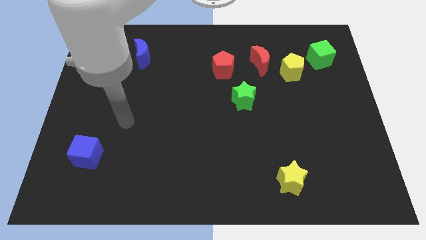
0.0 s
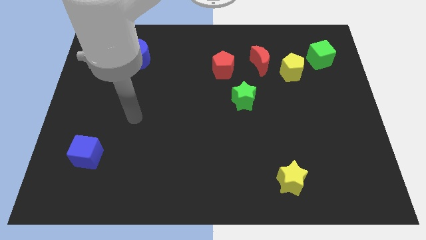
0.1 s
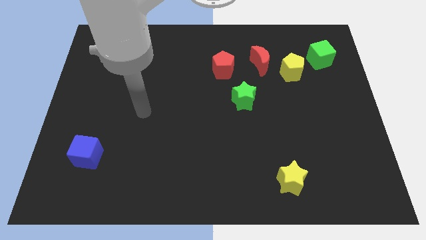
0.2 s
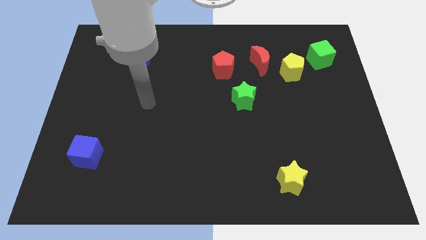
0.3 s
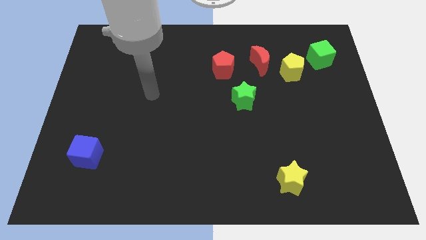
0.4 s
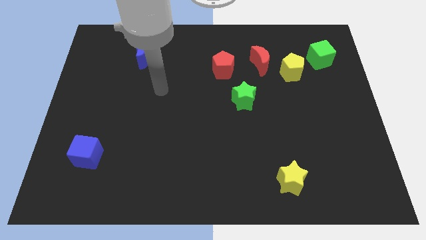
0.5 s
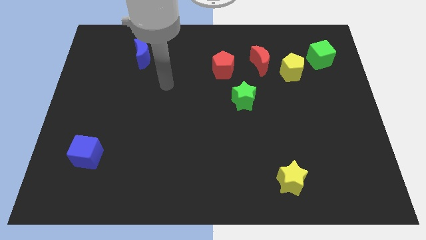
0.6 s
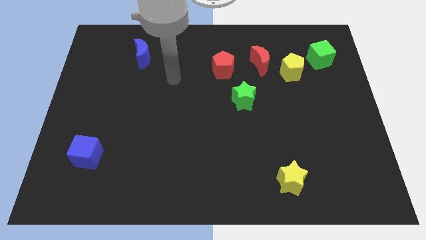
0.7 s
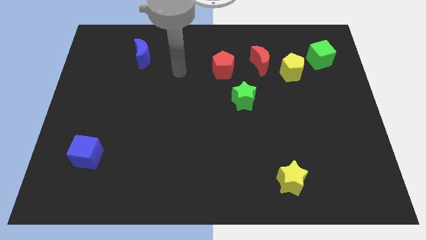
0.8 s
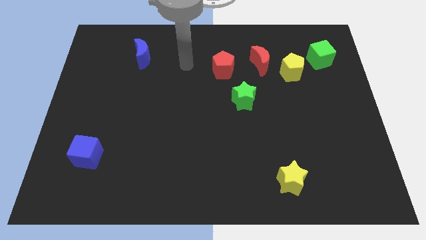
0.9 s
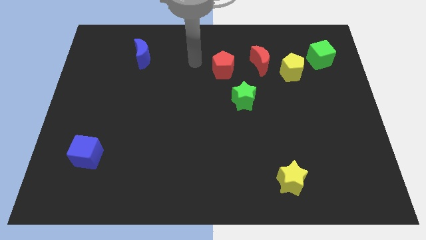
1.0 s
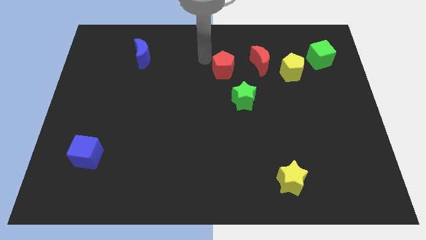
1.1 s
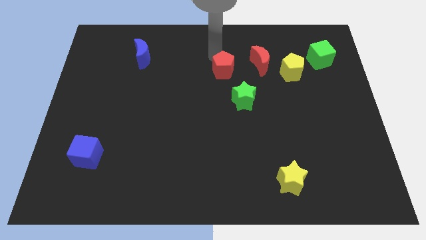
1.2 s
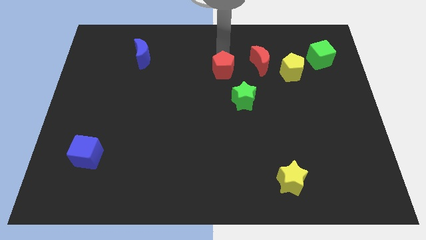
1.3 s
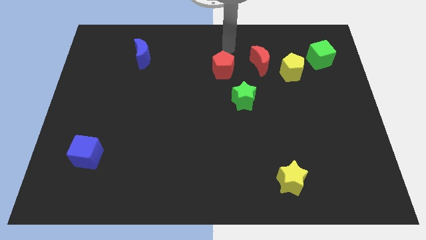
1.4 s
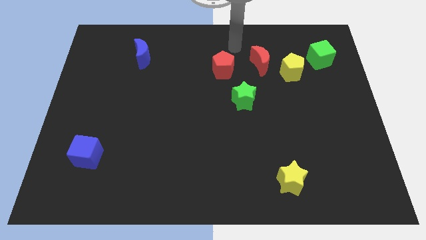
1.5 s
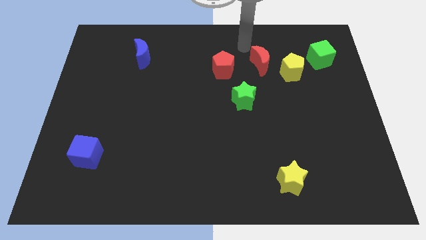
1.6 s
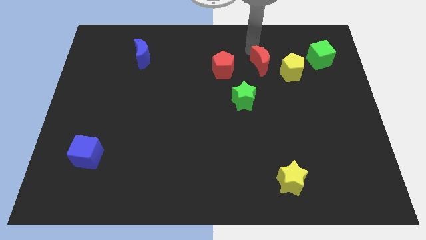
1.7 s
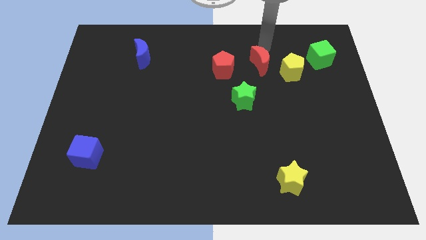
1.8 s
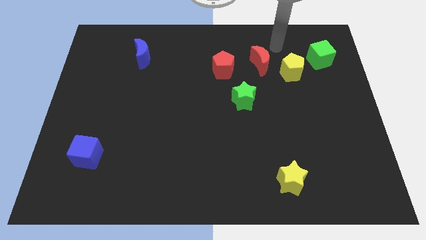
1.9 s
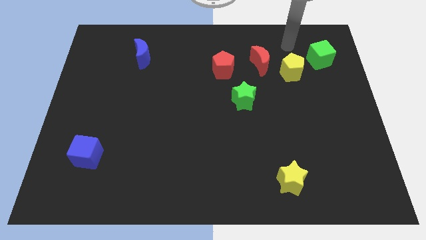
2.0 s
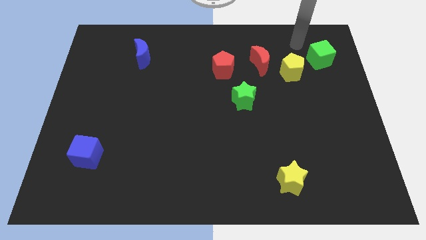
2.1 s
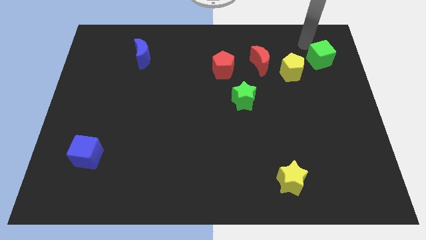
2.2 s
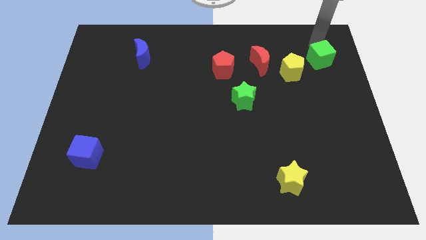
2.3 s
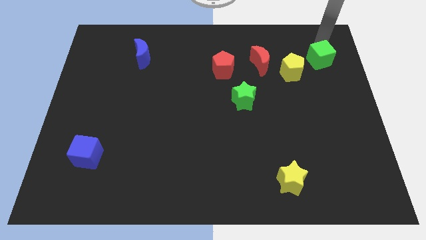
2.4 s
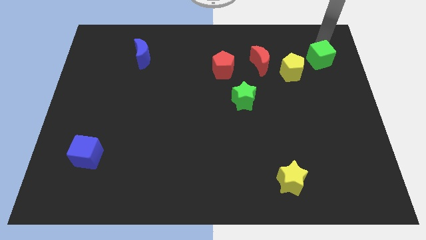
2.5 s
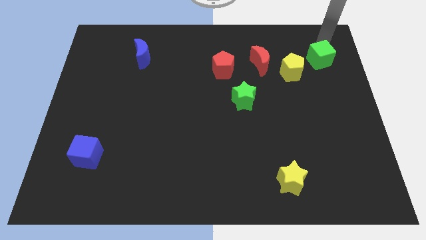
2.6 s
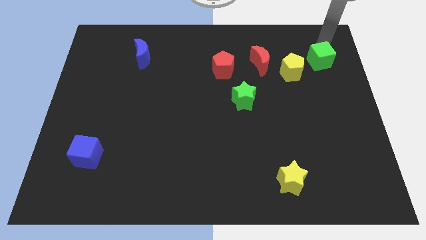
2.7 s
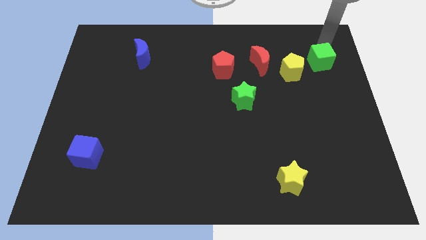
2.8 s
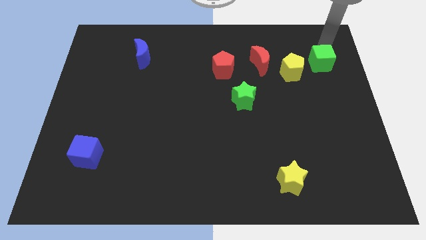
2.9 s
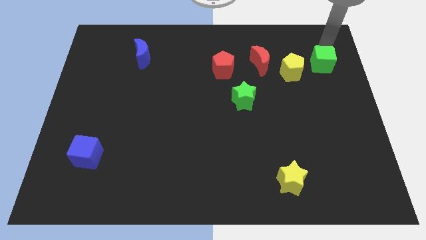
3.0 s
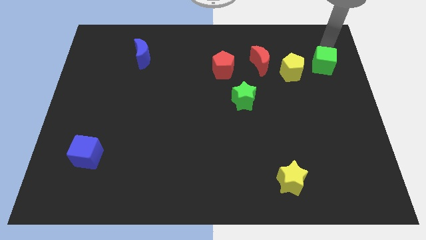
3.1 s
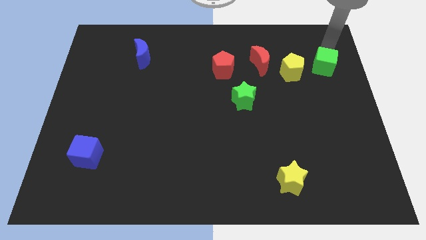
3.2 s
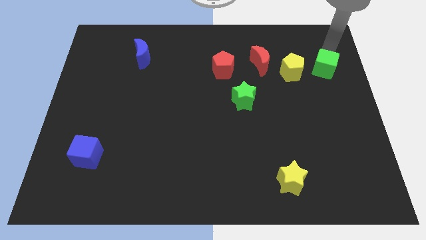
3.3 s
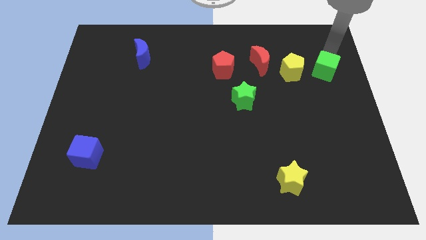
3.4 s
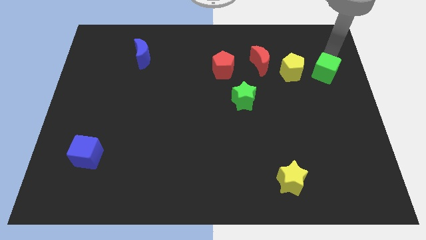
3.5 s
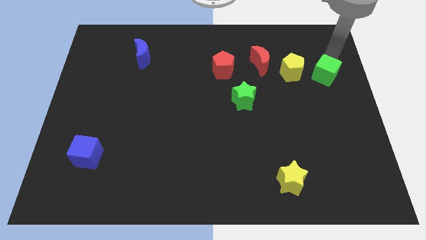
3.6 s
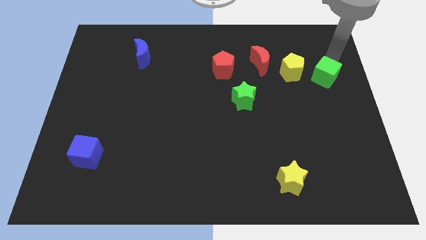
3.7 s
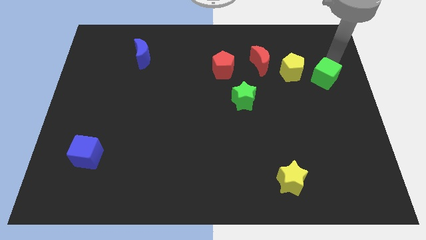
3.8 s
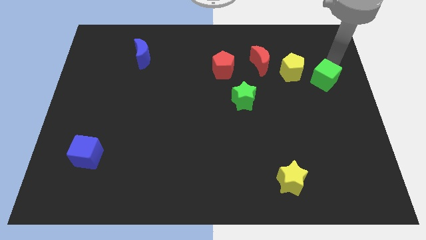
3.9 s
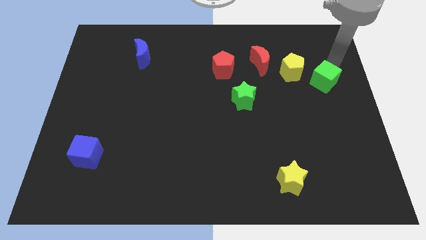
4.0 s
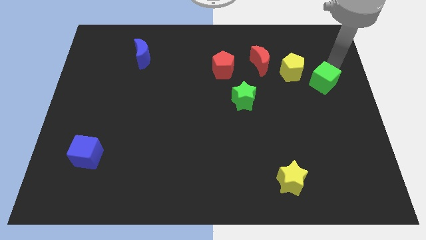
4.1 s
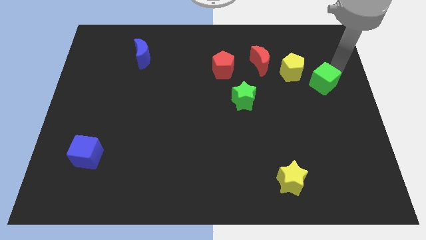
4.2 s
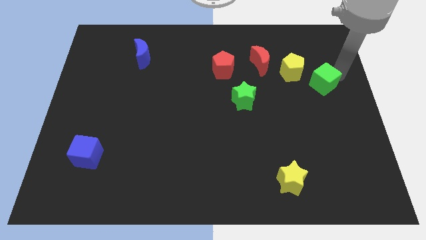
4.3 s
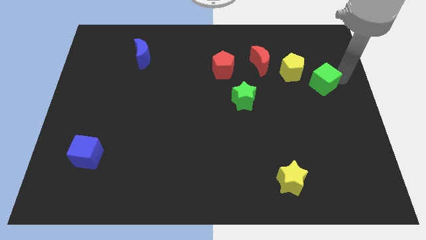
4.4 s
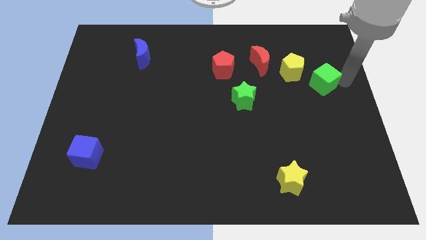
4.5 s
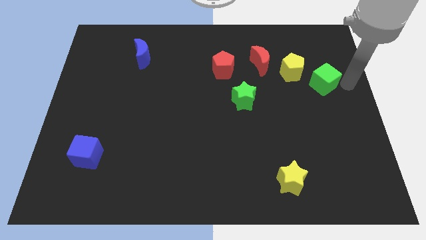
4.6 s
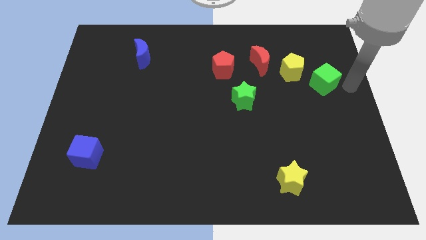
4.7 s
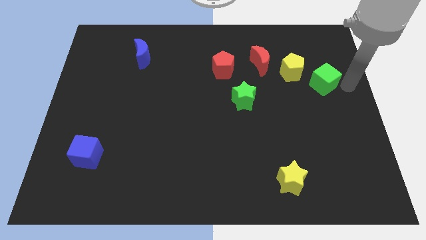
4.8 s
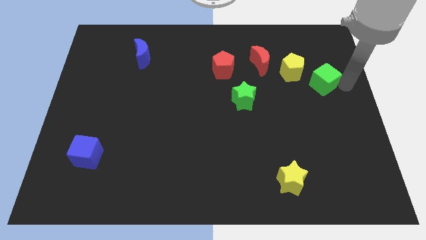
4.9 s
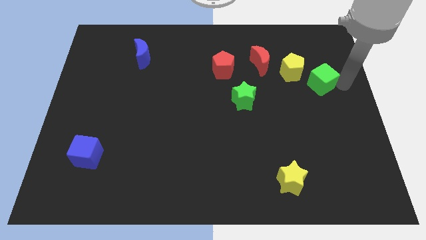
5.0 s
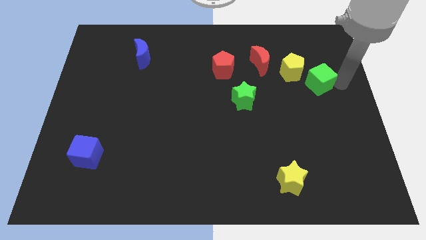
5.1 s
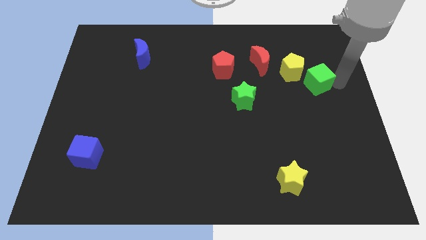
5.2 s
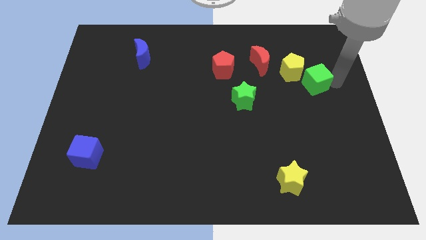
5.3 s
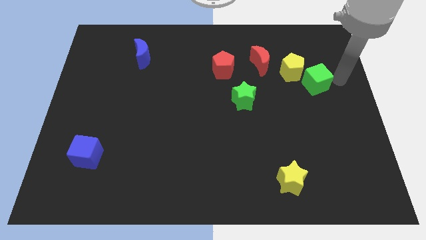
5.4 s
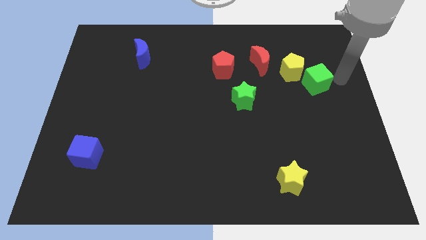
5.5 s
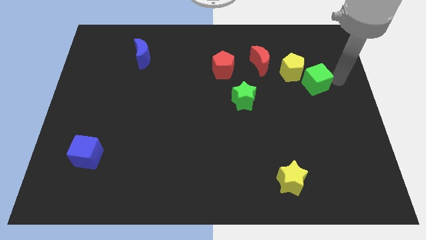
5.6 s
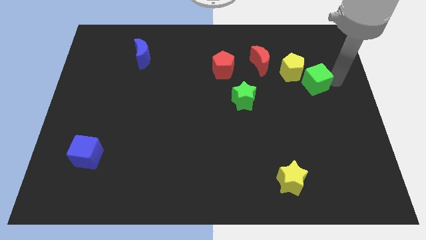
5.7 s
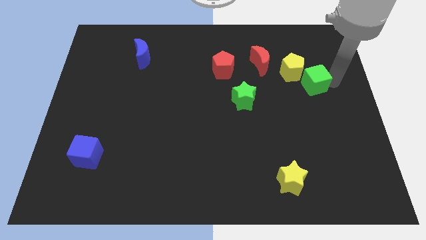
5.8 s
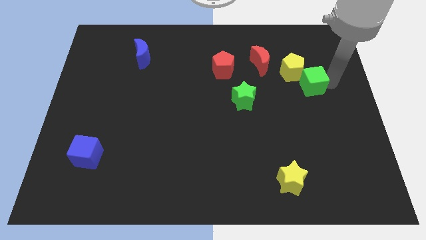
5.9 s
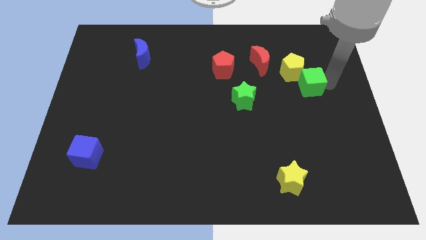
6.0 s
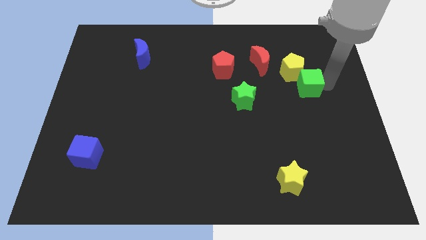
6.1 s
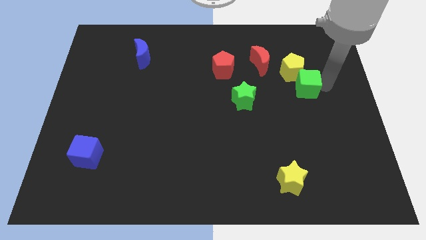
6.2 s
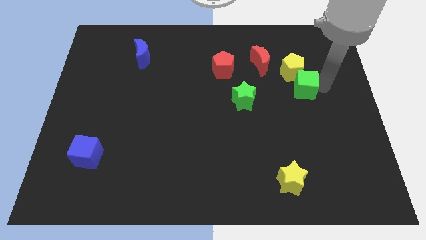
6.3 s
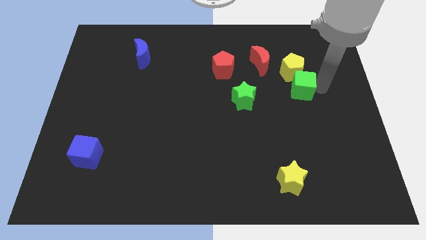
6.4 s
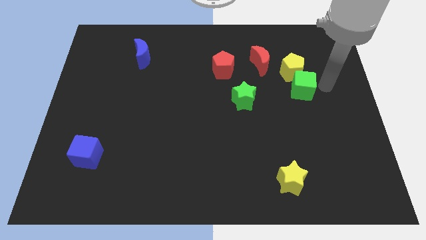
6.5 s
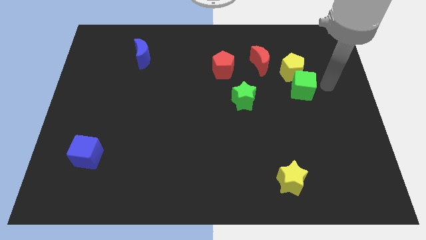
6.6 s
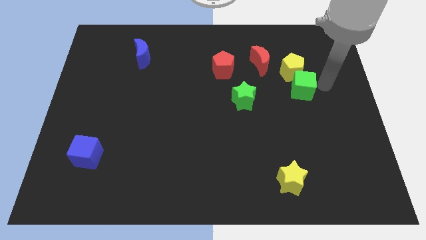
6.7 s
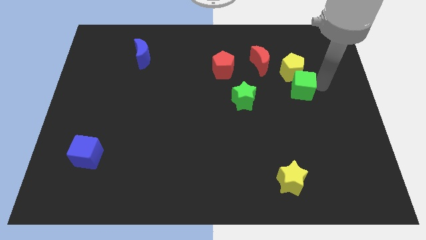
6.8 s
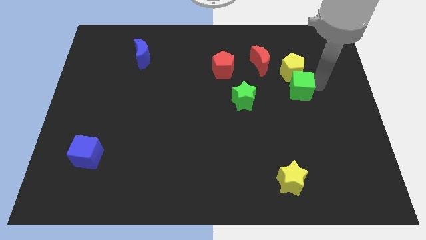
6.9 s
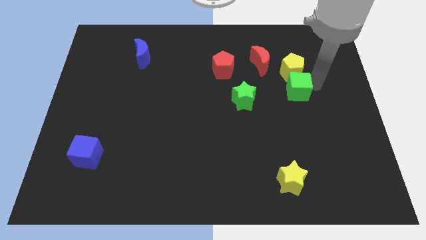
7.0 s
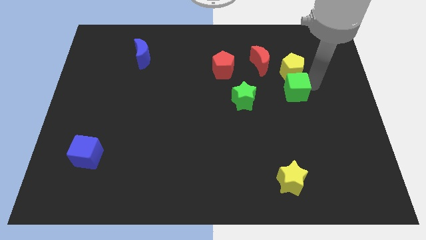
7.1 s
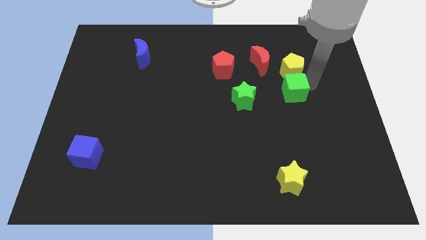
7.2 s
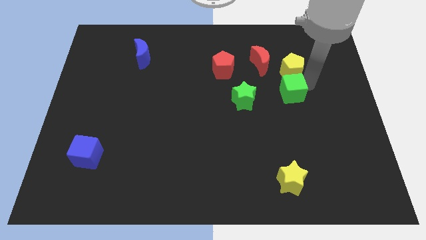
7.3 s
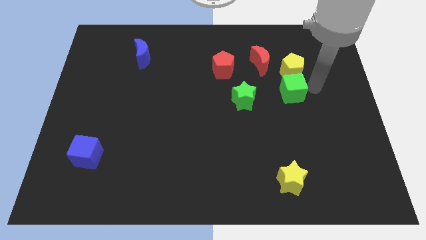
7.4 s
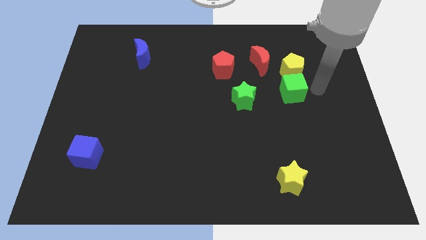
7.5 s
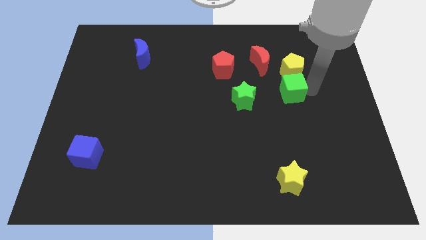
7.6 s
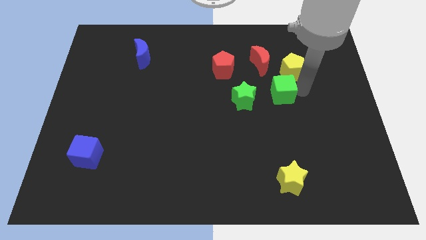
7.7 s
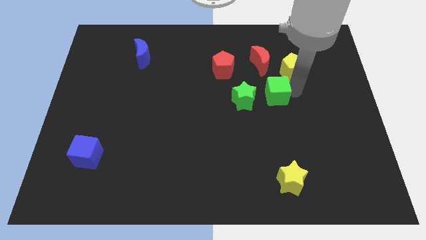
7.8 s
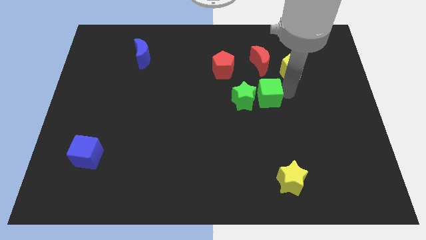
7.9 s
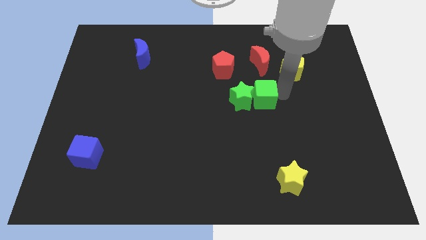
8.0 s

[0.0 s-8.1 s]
push the green cube to the green star
